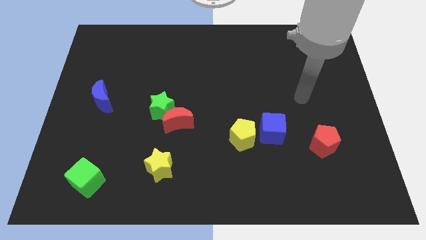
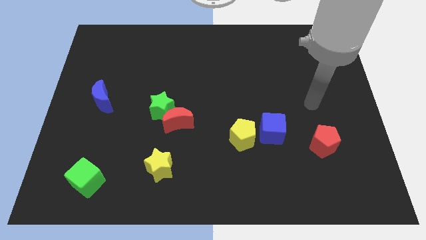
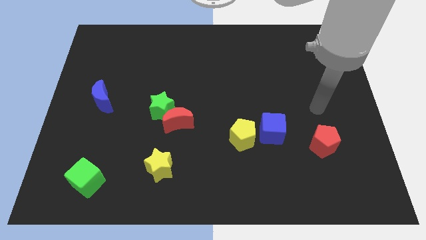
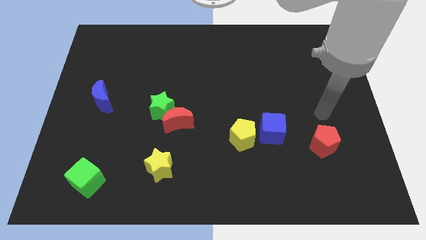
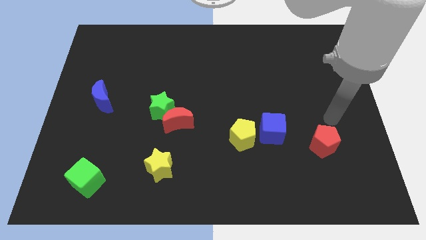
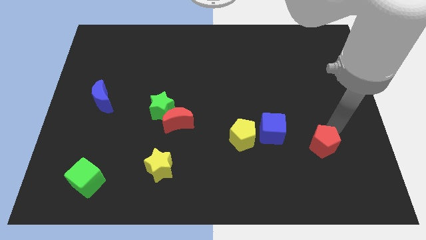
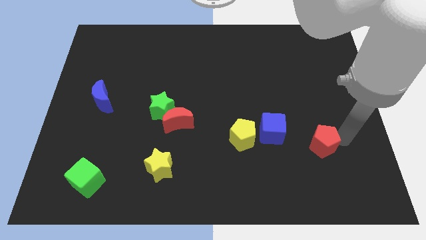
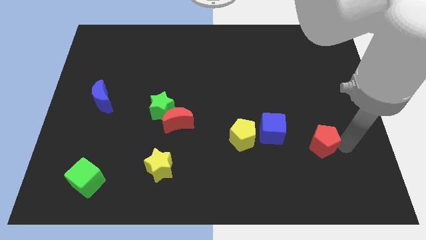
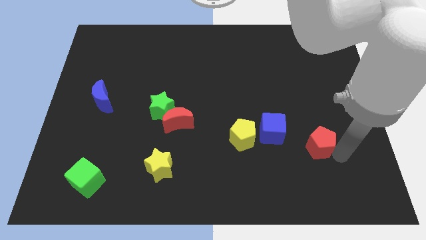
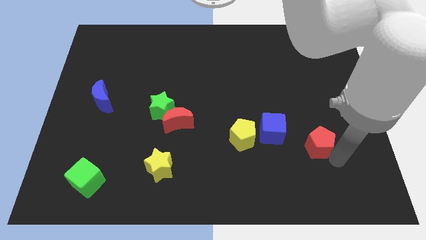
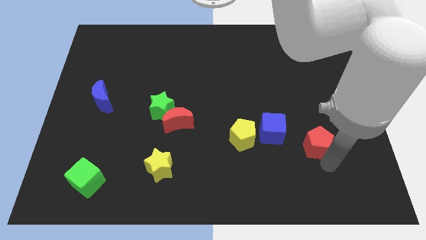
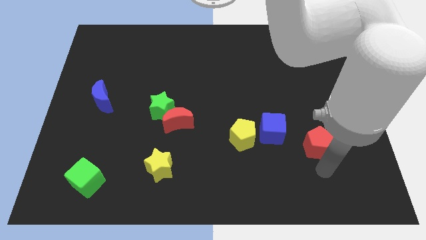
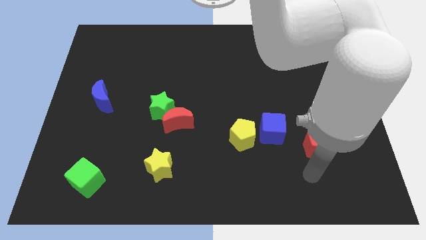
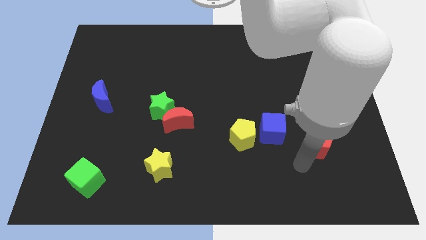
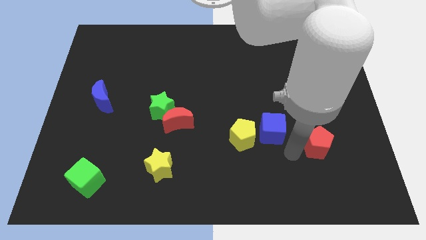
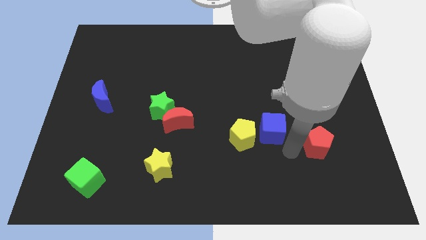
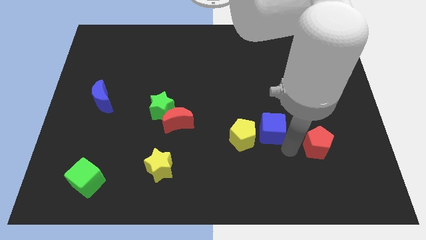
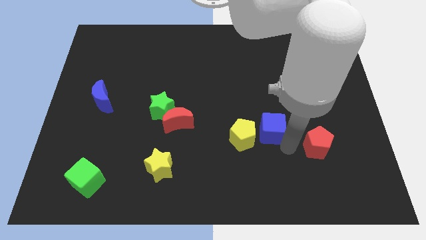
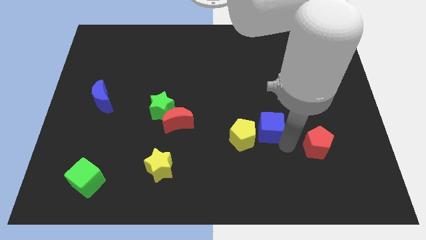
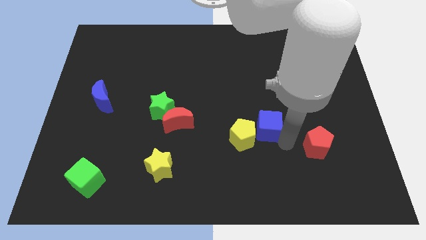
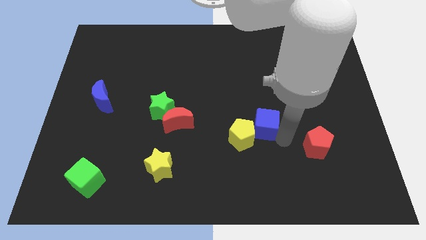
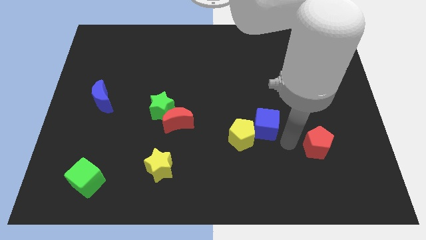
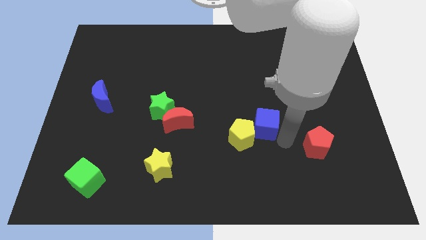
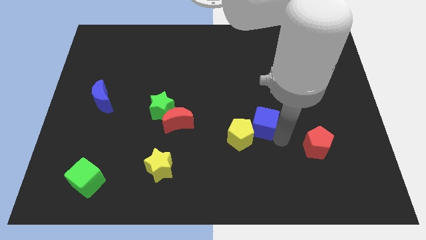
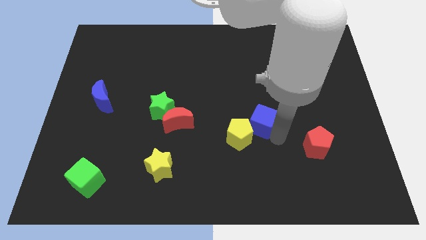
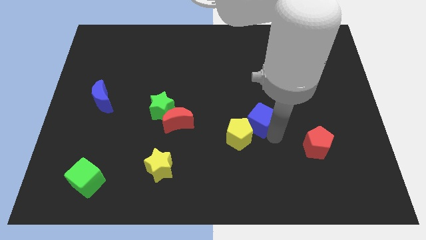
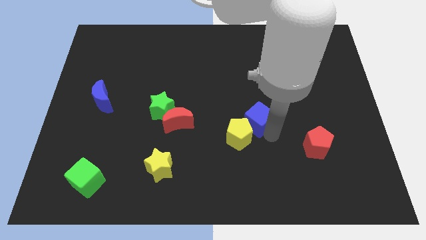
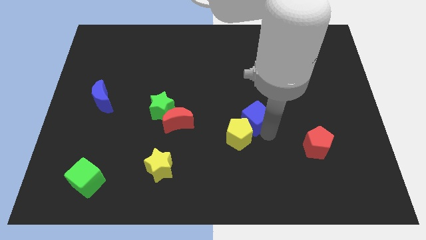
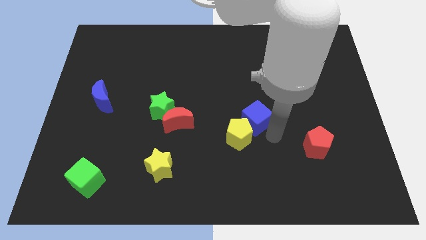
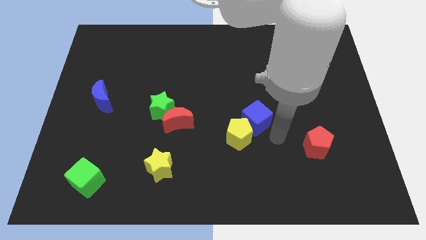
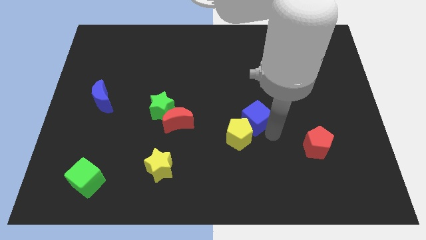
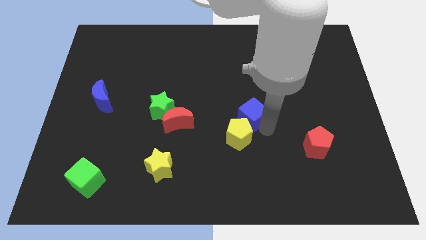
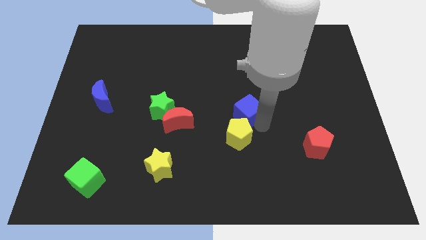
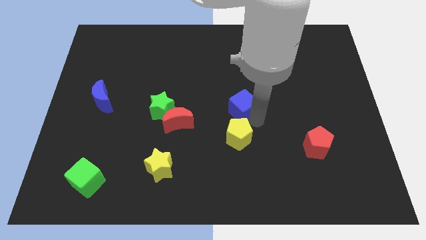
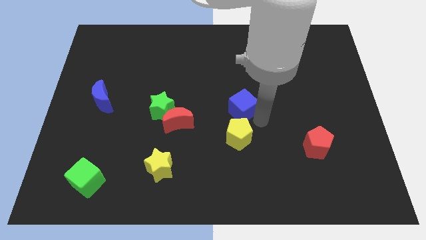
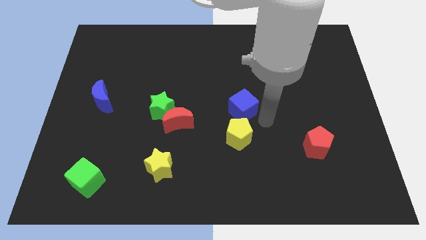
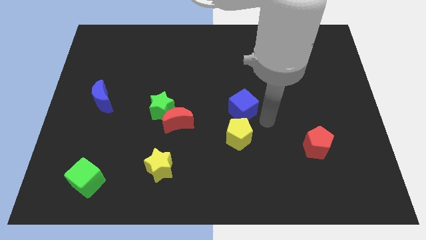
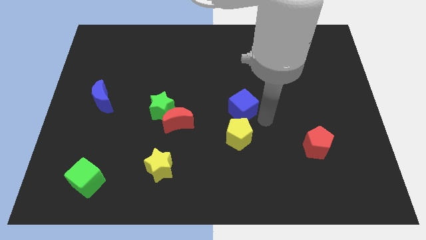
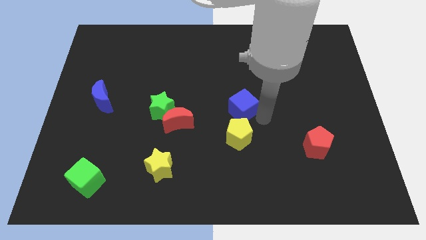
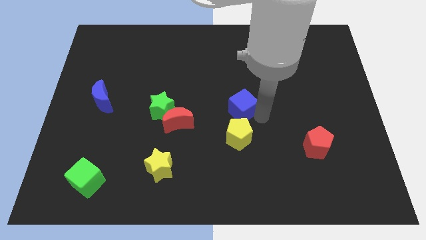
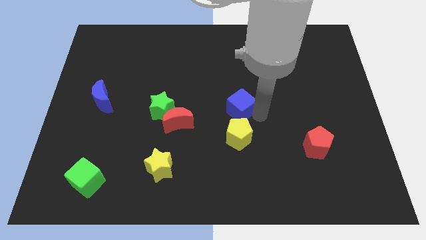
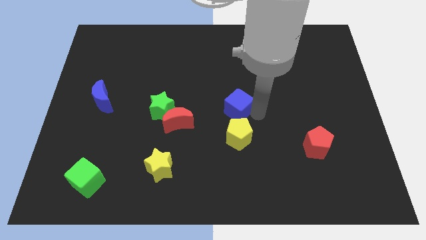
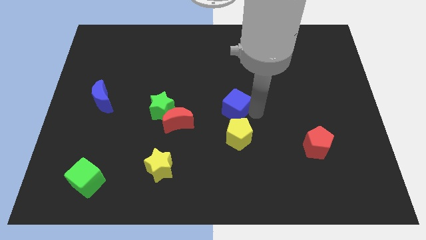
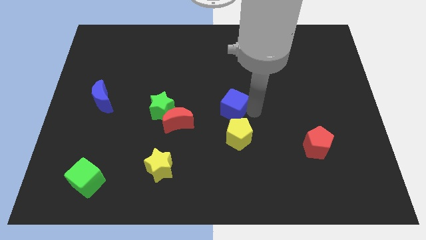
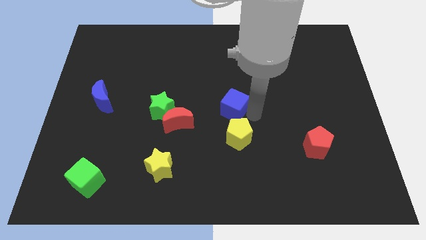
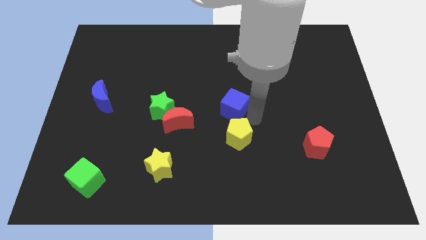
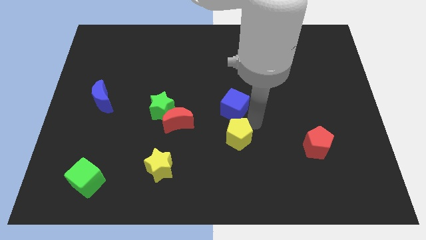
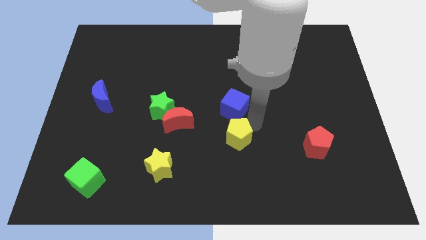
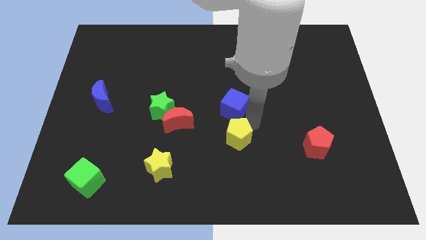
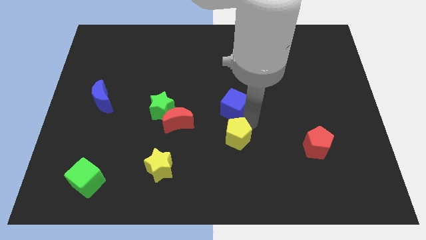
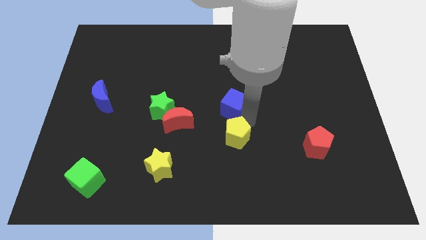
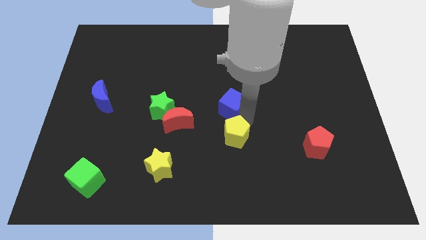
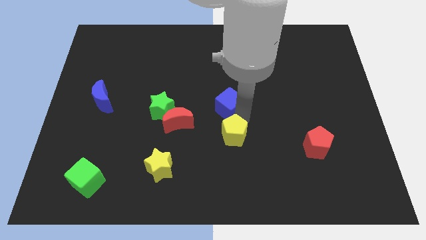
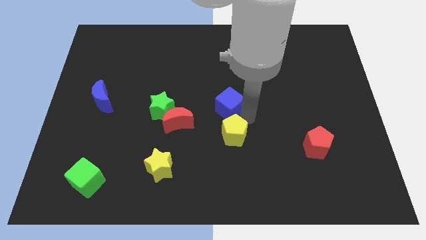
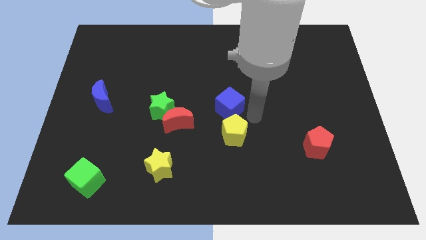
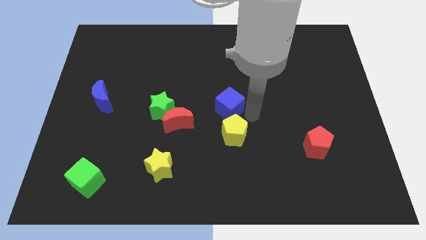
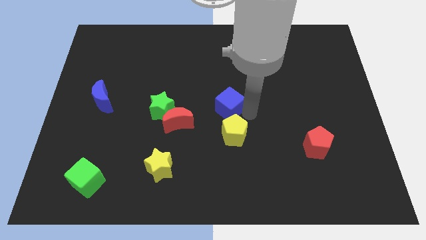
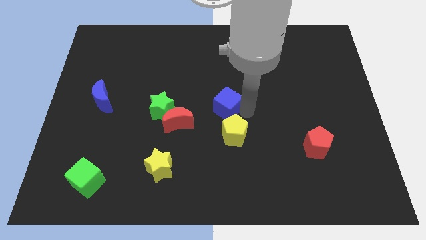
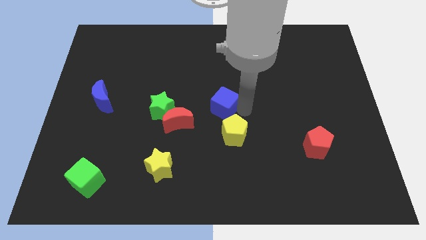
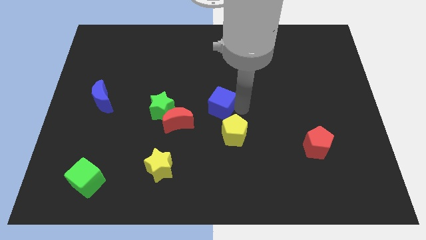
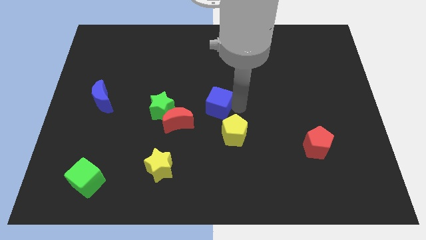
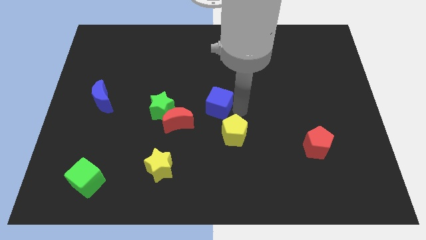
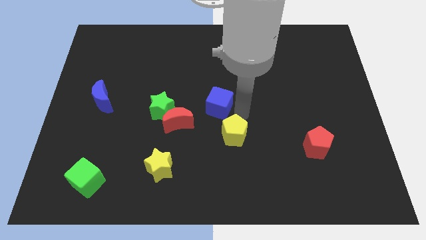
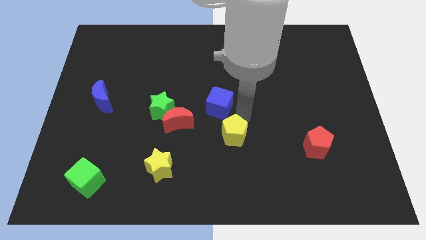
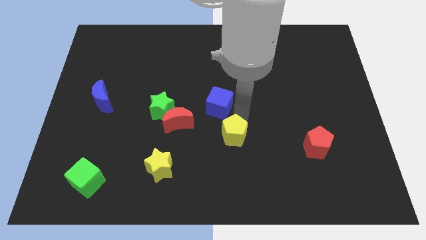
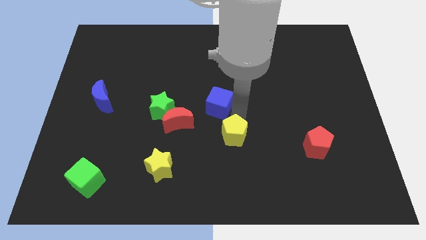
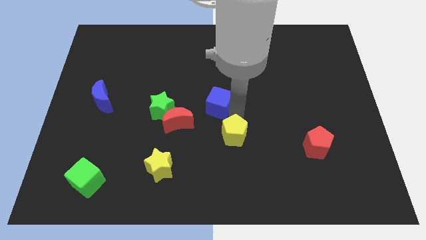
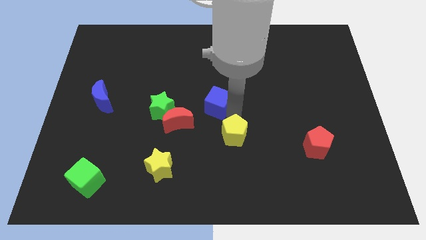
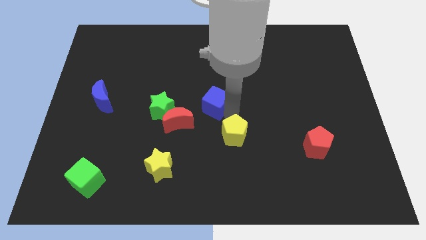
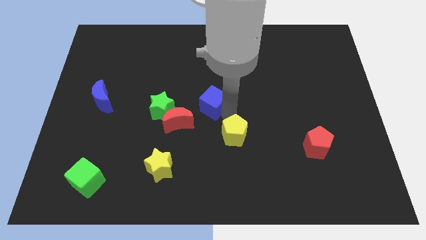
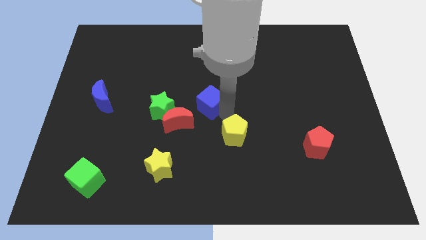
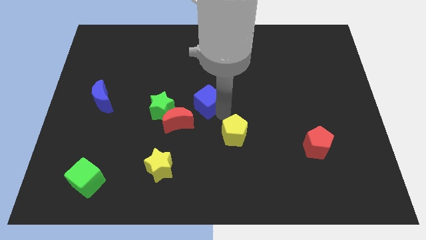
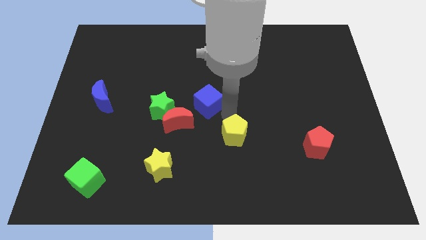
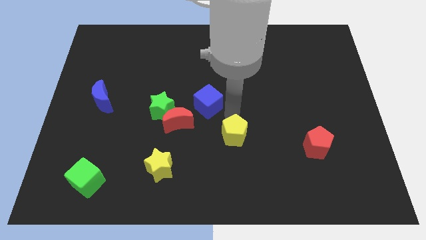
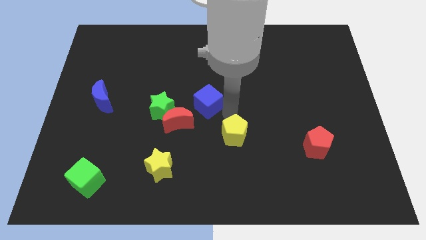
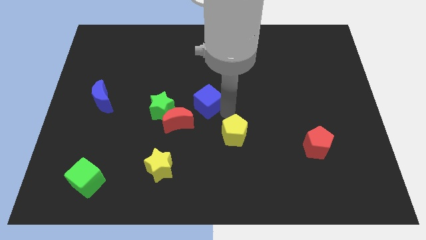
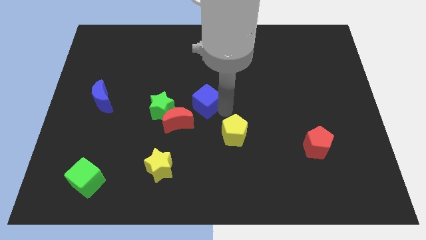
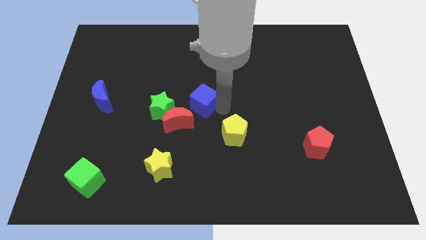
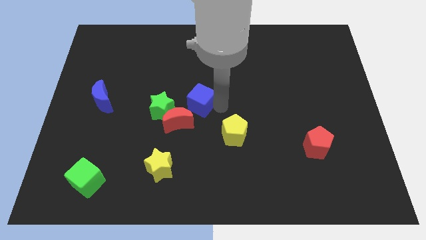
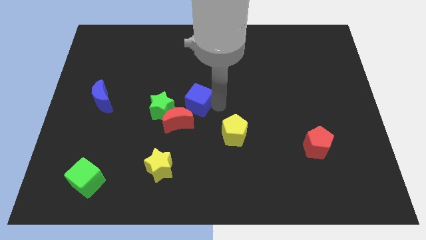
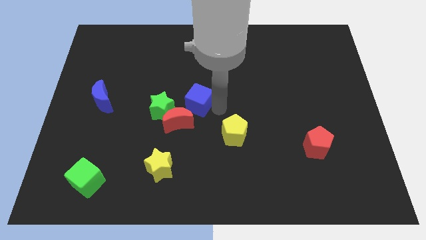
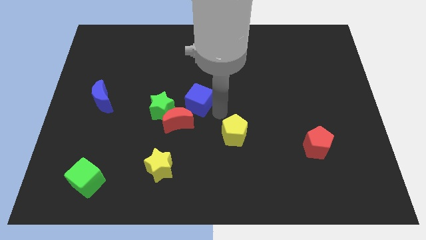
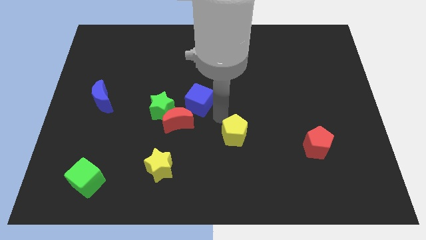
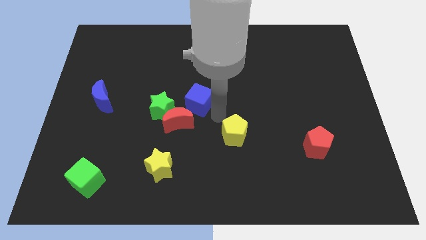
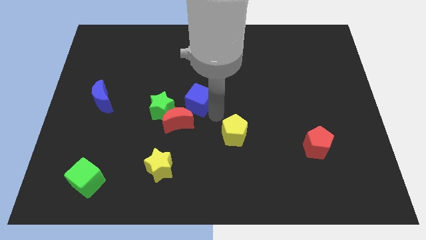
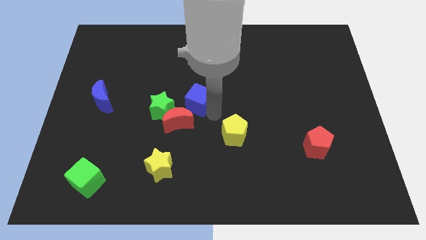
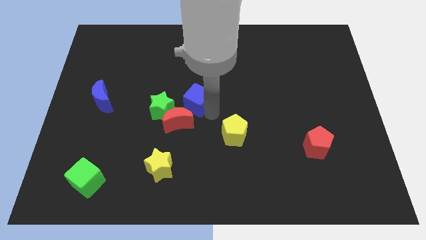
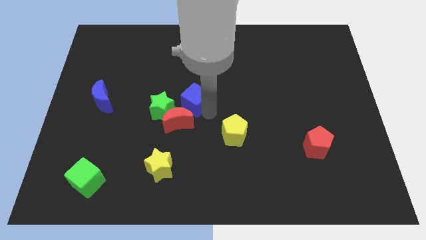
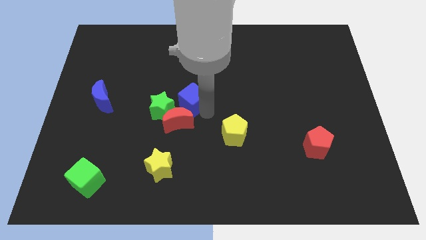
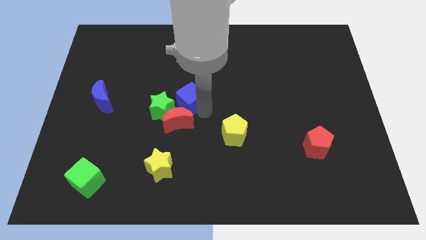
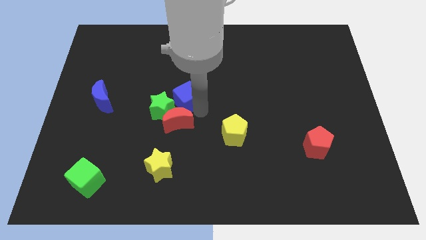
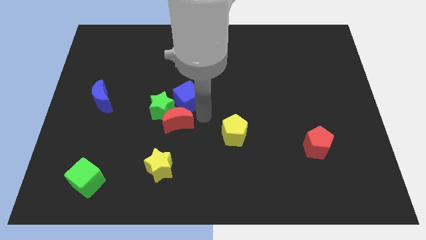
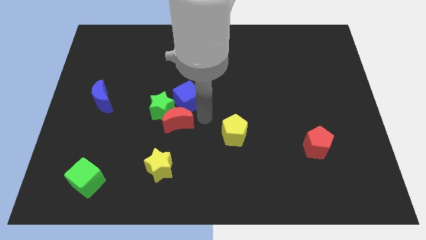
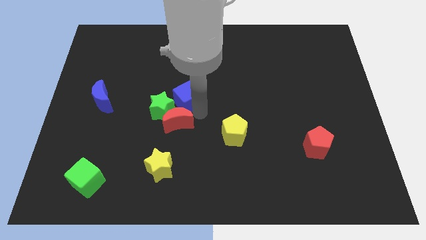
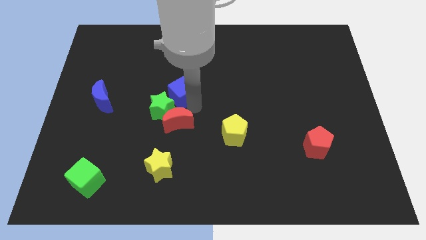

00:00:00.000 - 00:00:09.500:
push the blue cube to the top of the green star
